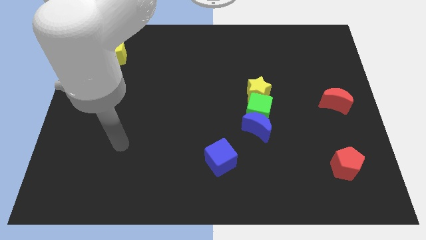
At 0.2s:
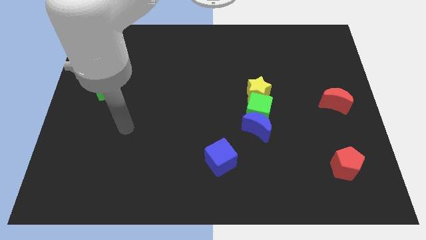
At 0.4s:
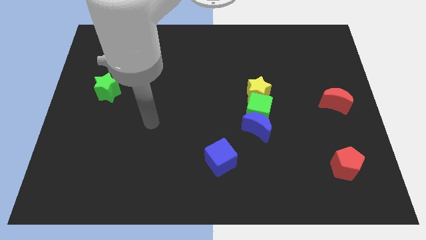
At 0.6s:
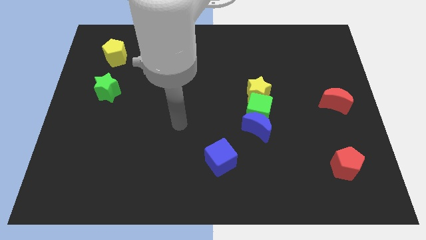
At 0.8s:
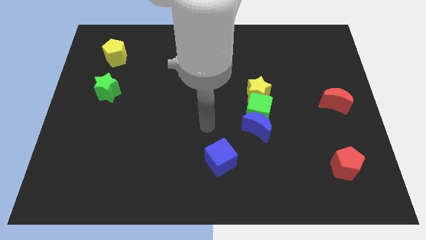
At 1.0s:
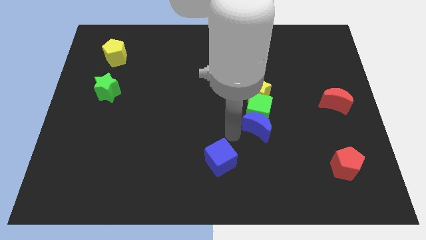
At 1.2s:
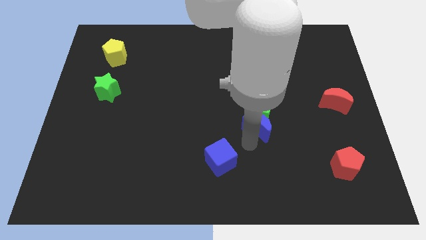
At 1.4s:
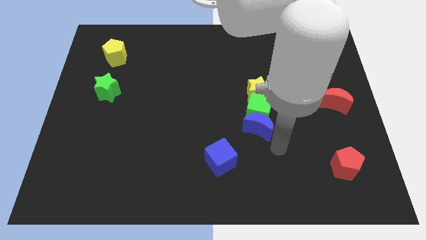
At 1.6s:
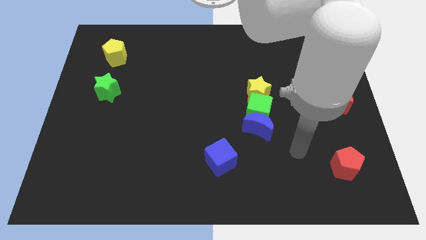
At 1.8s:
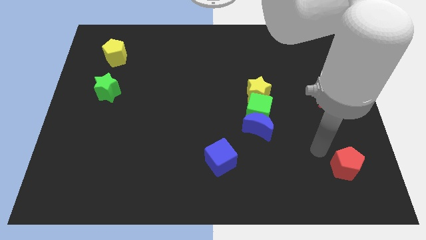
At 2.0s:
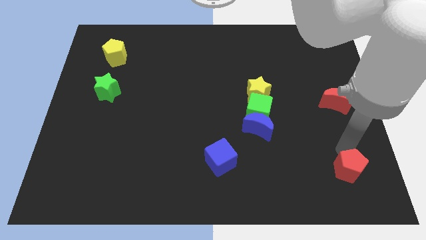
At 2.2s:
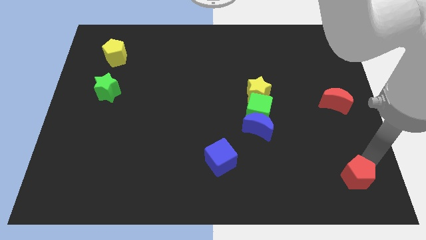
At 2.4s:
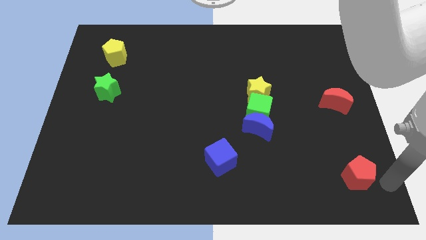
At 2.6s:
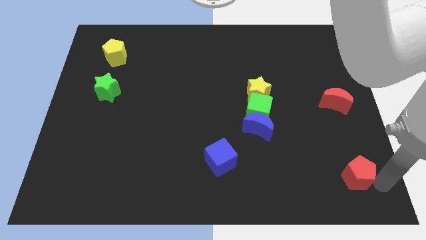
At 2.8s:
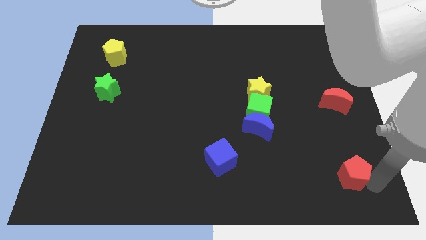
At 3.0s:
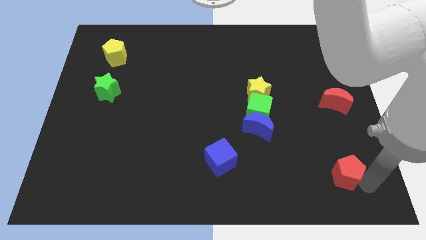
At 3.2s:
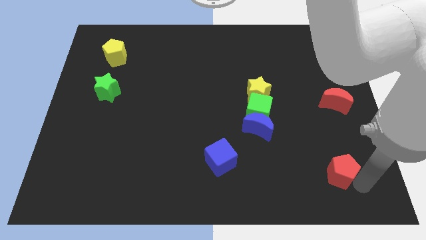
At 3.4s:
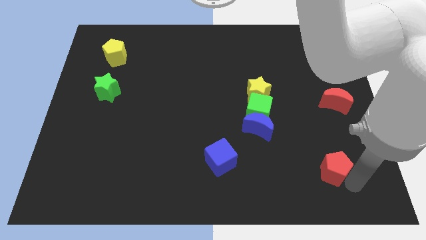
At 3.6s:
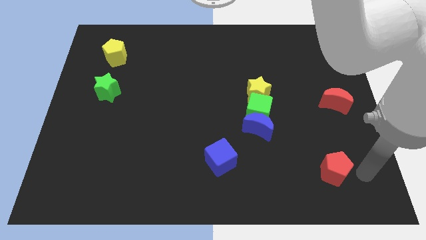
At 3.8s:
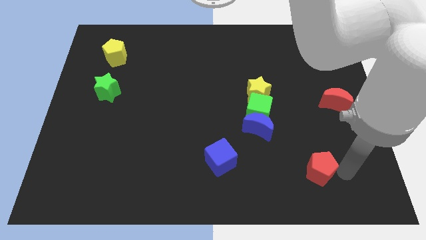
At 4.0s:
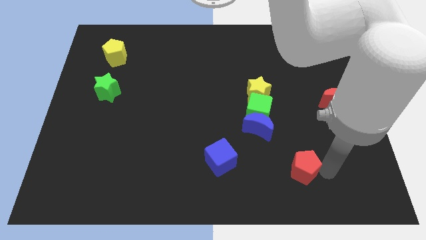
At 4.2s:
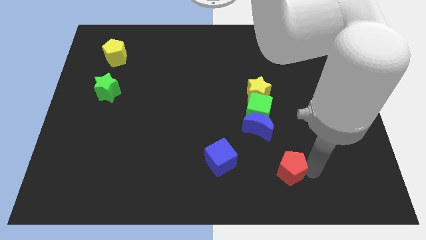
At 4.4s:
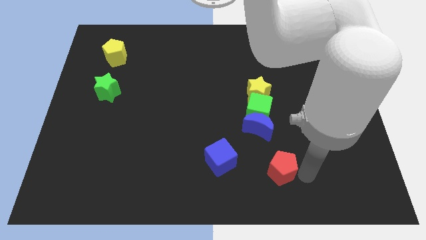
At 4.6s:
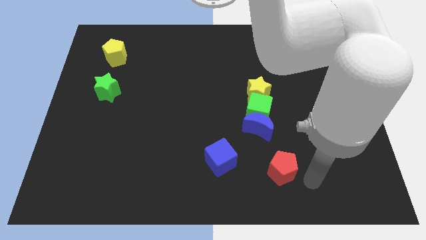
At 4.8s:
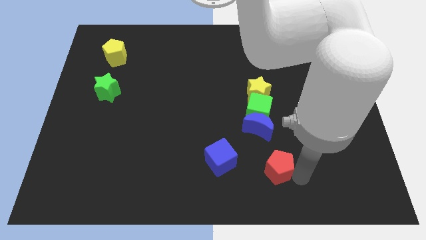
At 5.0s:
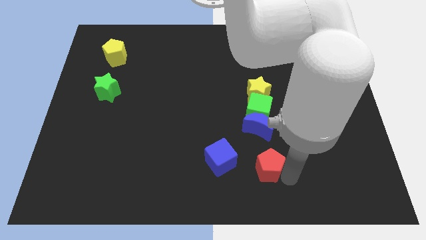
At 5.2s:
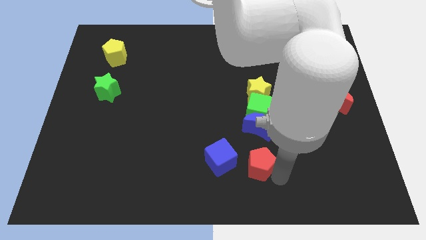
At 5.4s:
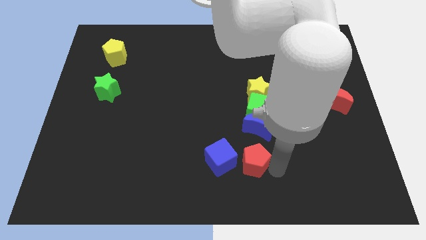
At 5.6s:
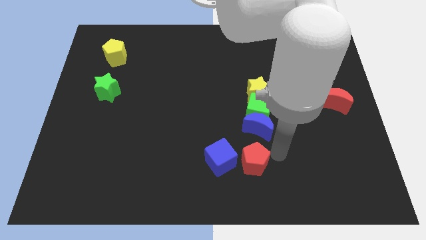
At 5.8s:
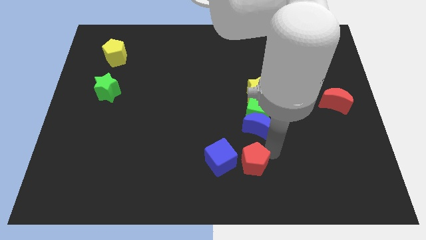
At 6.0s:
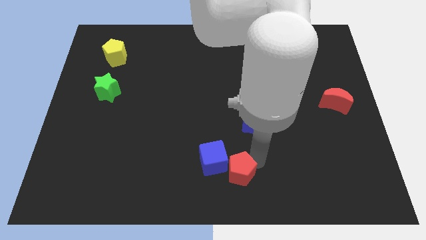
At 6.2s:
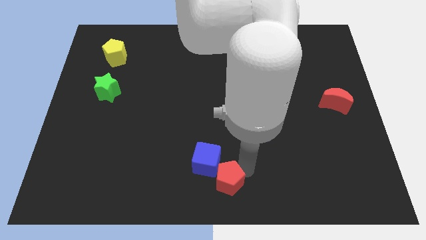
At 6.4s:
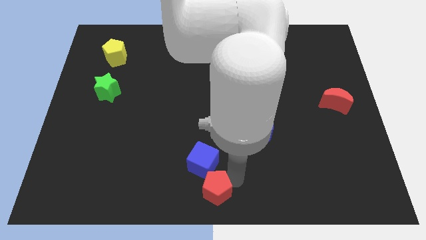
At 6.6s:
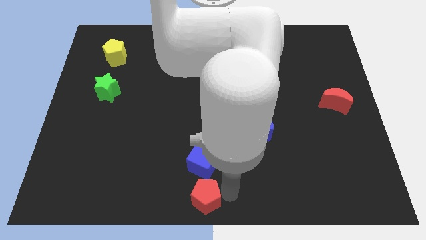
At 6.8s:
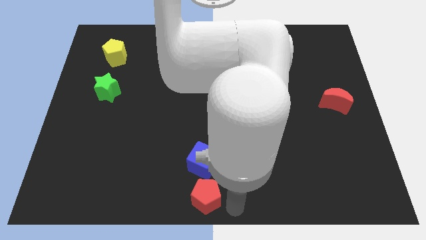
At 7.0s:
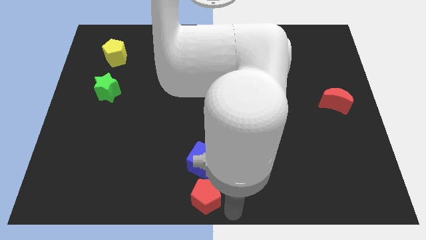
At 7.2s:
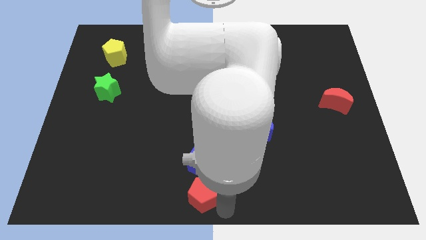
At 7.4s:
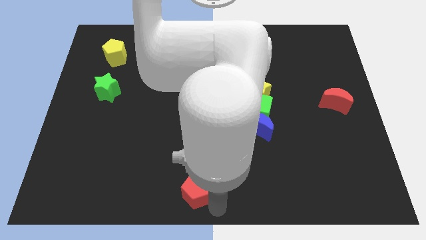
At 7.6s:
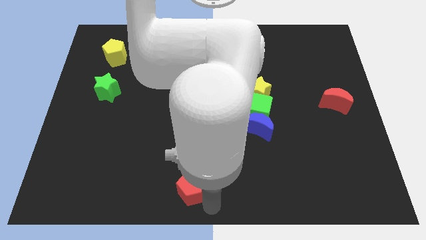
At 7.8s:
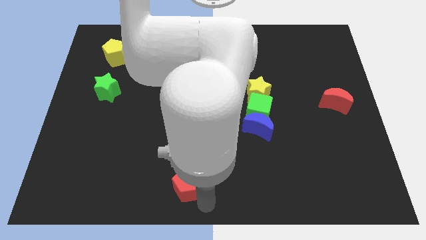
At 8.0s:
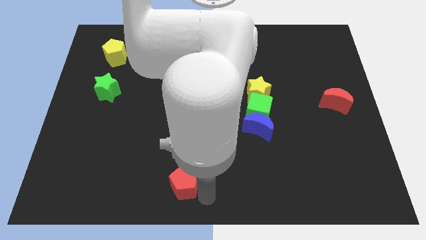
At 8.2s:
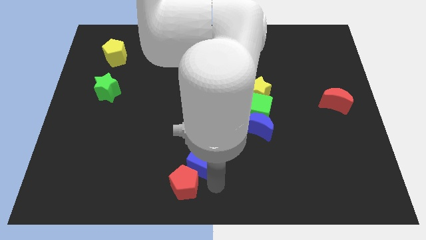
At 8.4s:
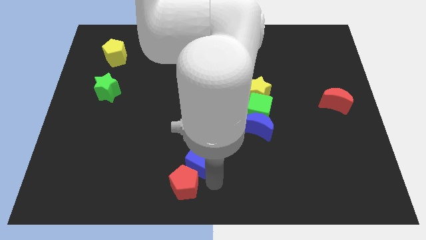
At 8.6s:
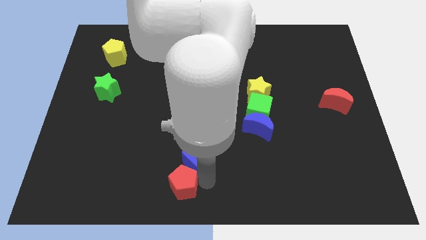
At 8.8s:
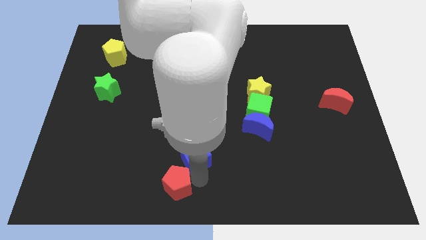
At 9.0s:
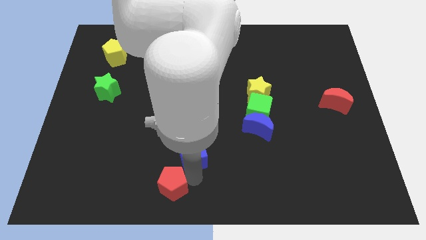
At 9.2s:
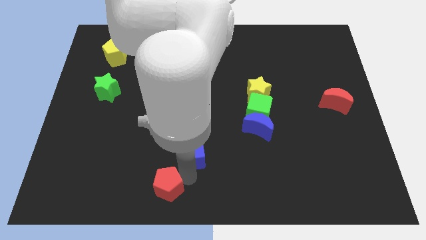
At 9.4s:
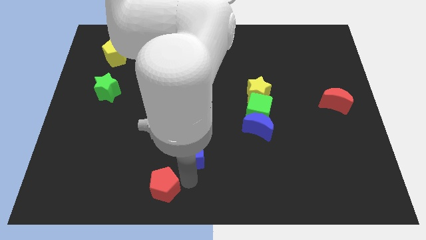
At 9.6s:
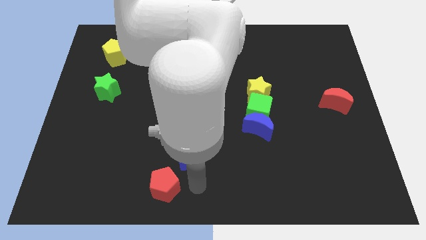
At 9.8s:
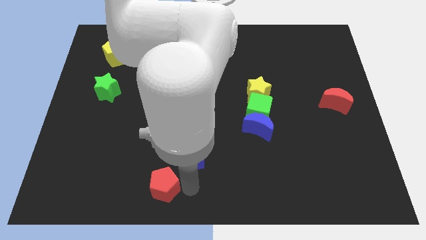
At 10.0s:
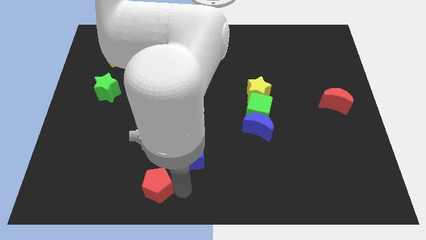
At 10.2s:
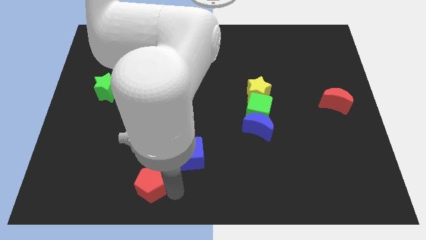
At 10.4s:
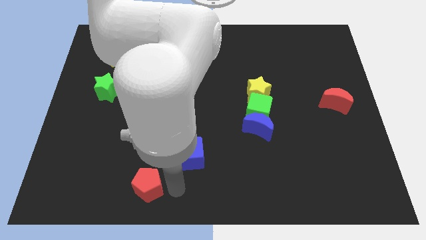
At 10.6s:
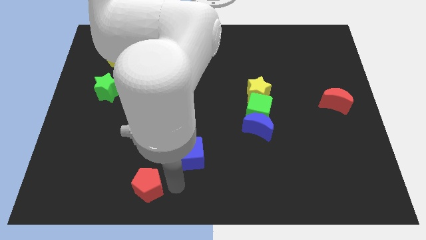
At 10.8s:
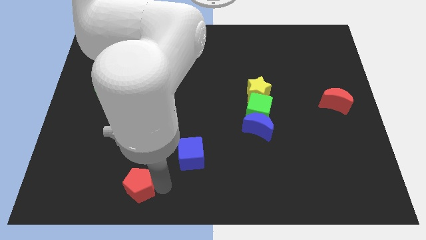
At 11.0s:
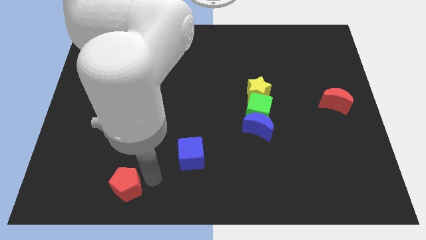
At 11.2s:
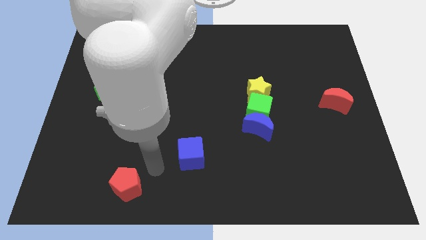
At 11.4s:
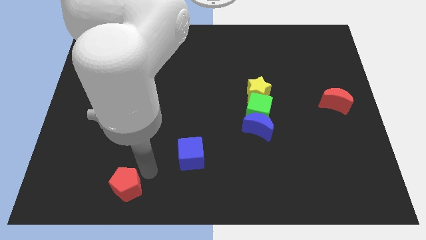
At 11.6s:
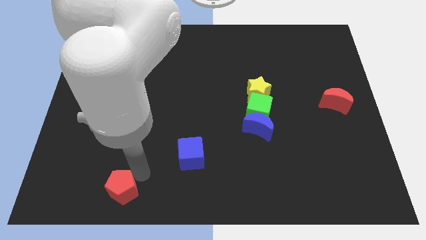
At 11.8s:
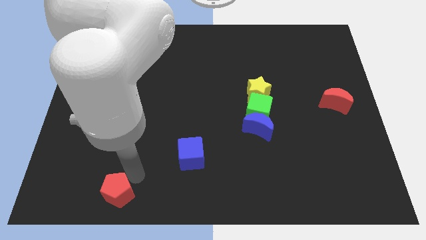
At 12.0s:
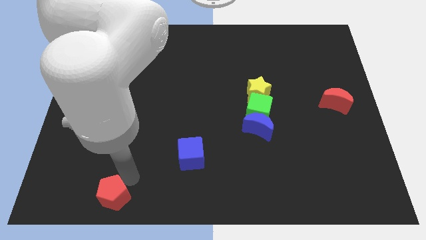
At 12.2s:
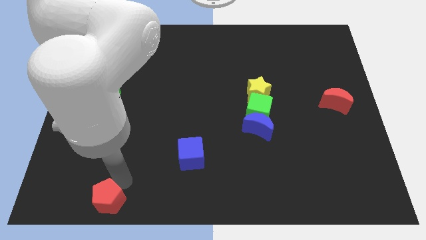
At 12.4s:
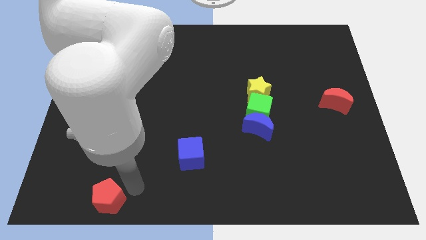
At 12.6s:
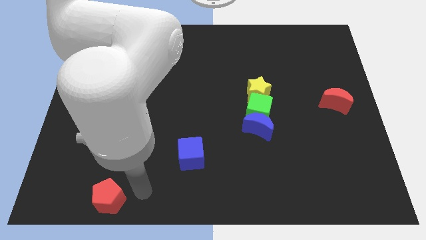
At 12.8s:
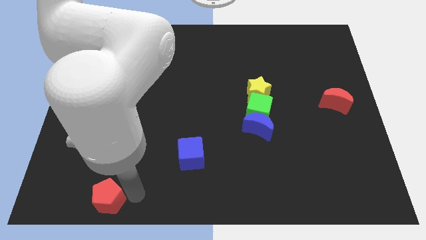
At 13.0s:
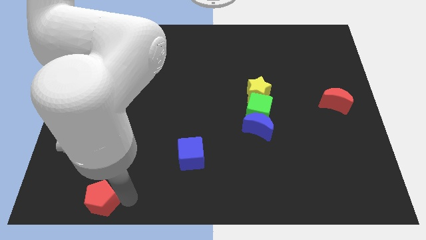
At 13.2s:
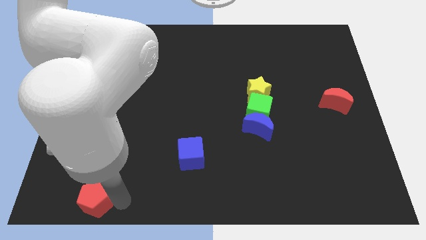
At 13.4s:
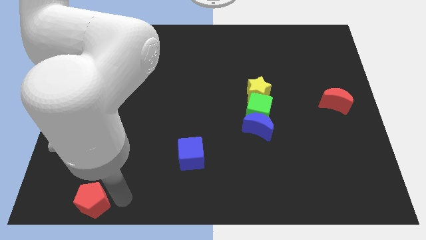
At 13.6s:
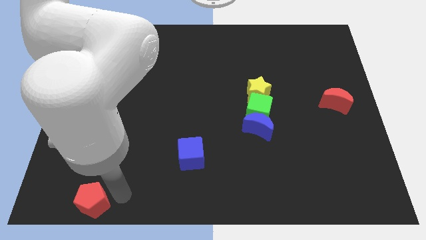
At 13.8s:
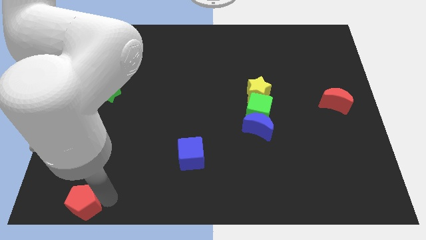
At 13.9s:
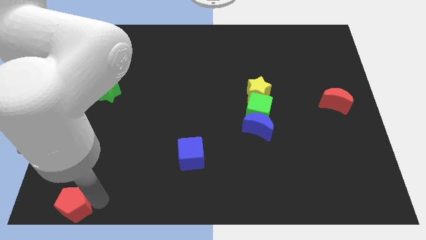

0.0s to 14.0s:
push the red pentagon to the bottom left

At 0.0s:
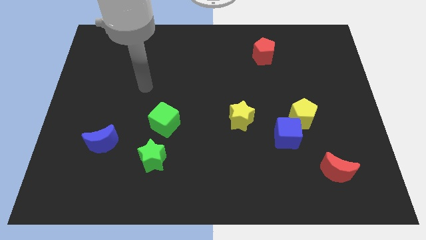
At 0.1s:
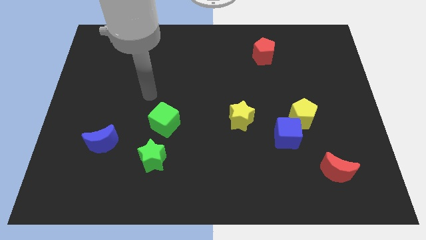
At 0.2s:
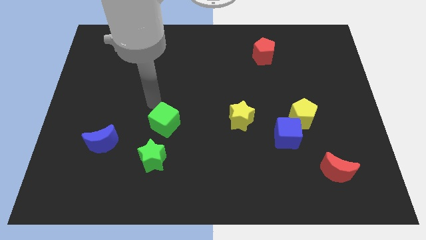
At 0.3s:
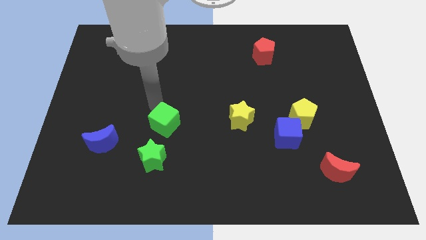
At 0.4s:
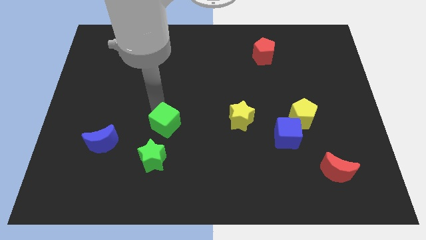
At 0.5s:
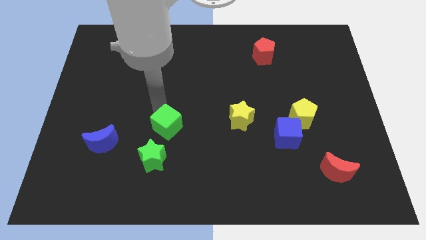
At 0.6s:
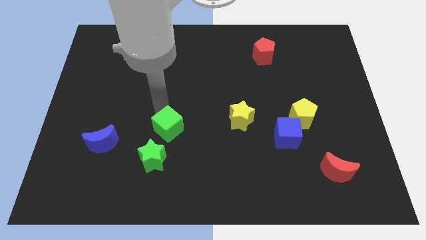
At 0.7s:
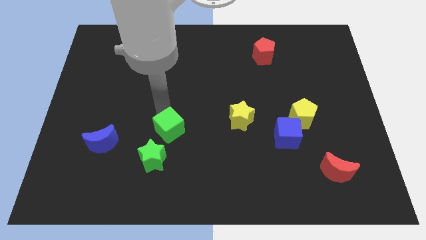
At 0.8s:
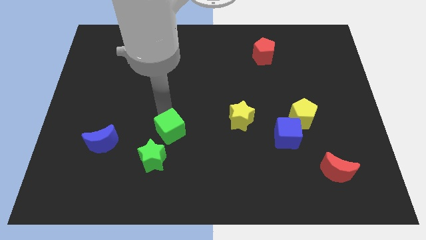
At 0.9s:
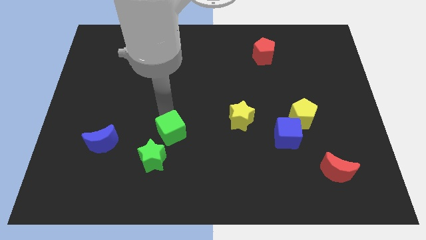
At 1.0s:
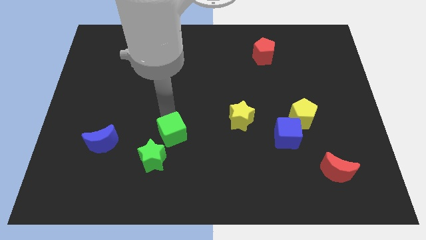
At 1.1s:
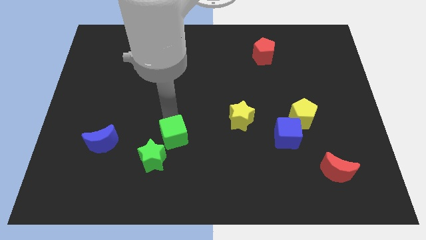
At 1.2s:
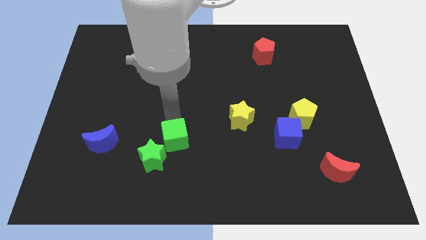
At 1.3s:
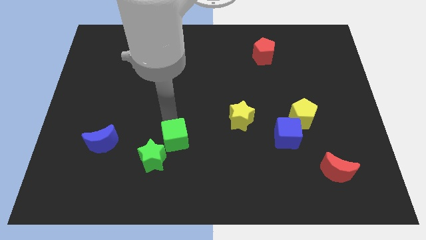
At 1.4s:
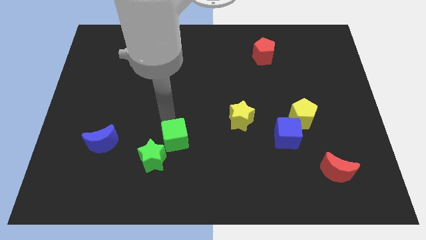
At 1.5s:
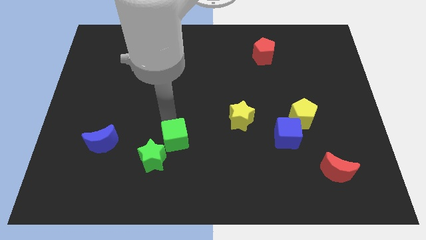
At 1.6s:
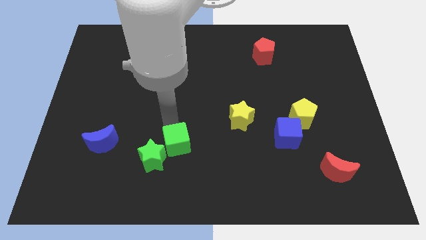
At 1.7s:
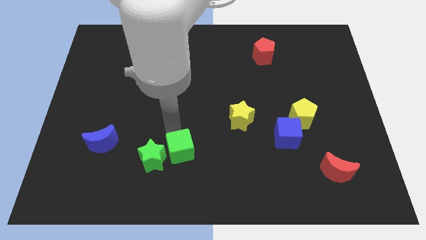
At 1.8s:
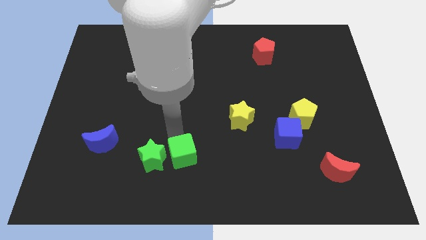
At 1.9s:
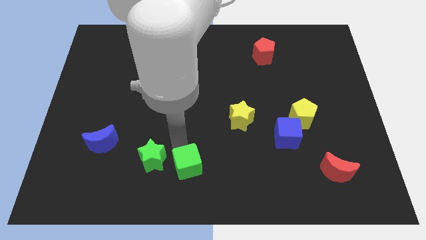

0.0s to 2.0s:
push the green cube to the bottom
